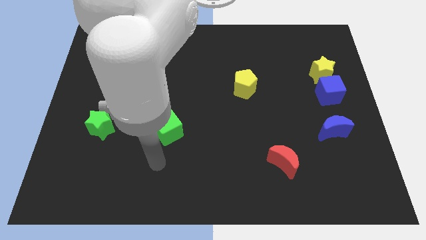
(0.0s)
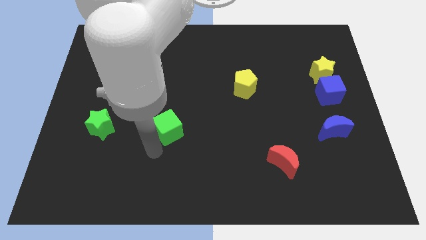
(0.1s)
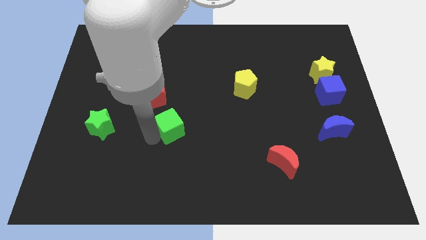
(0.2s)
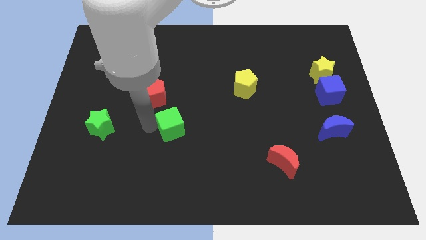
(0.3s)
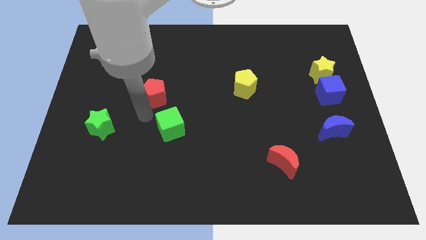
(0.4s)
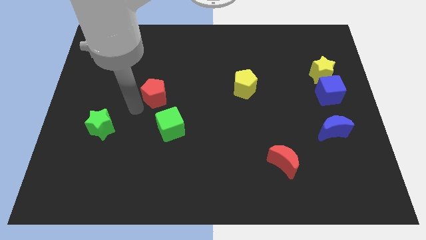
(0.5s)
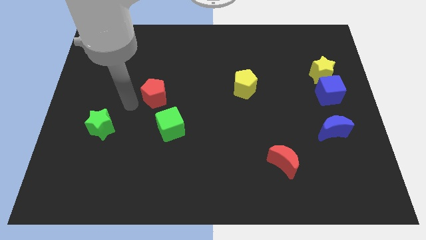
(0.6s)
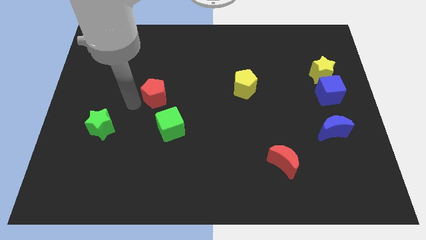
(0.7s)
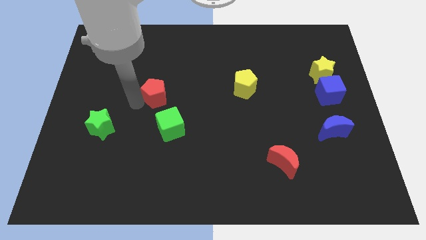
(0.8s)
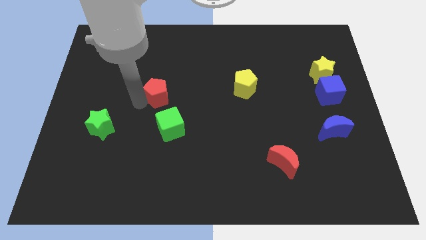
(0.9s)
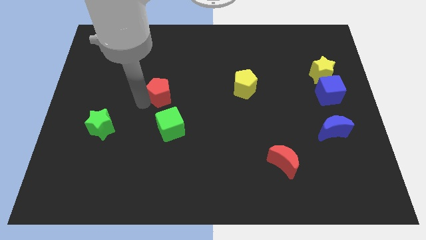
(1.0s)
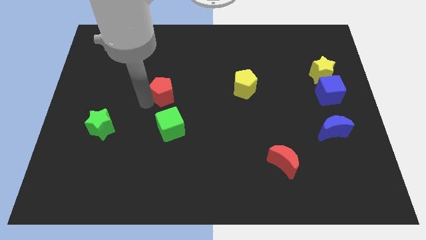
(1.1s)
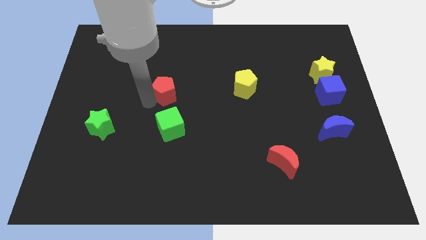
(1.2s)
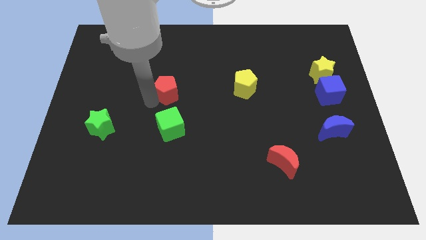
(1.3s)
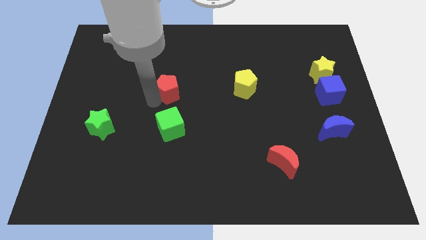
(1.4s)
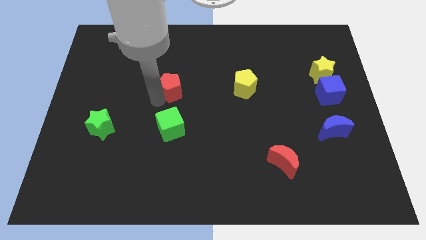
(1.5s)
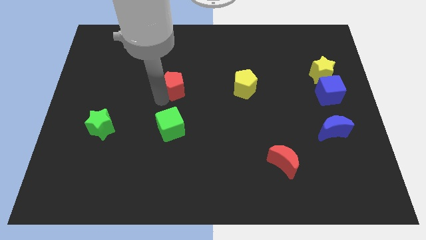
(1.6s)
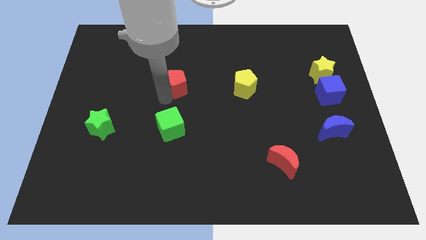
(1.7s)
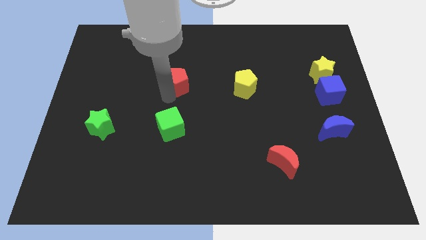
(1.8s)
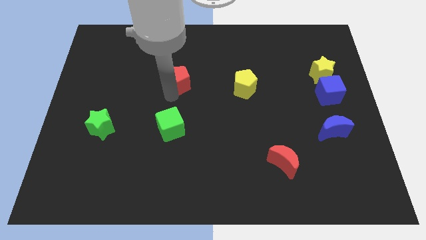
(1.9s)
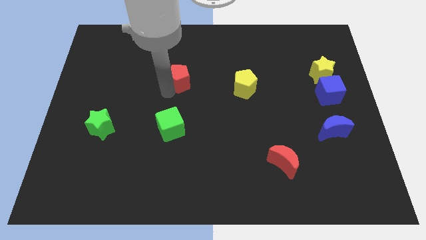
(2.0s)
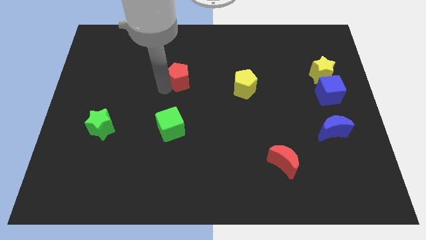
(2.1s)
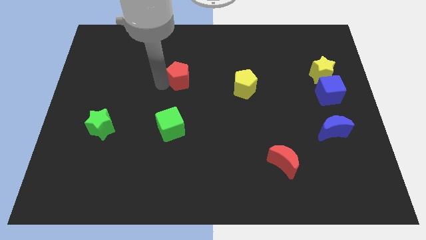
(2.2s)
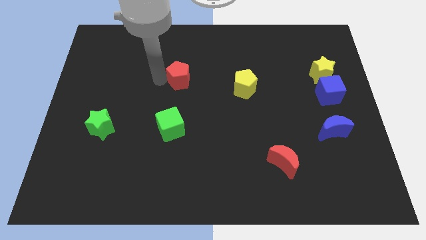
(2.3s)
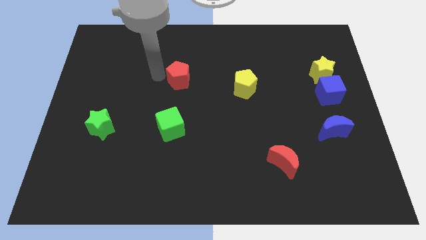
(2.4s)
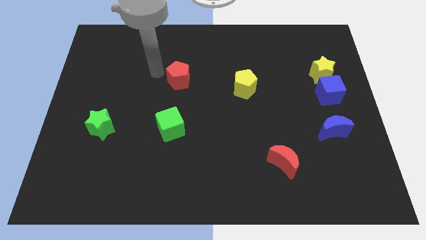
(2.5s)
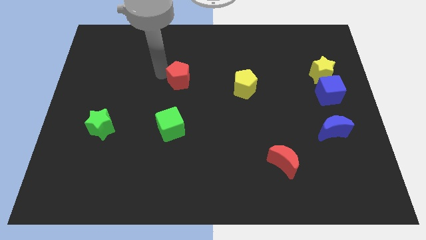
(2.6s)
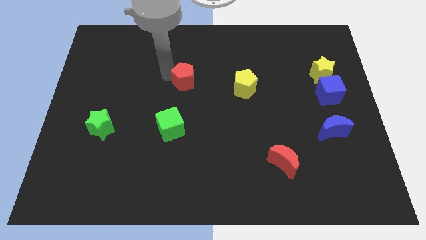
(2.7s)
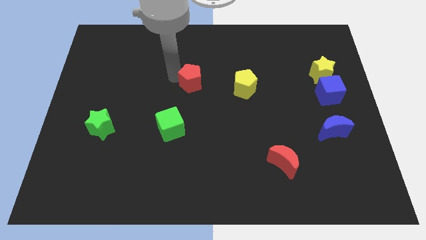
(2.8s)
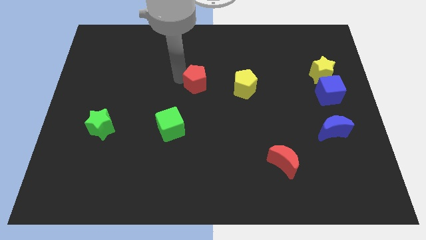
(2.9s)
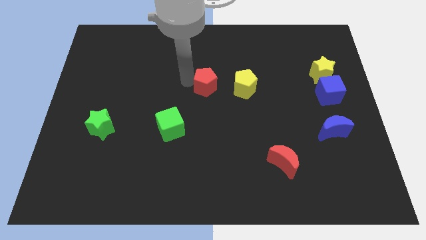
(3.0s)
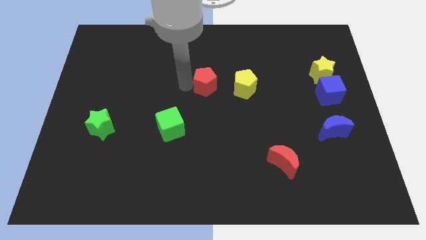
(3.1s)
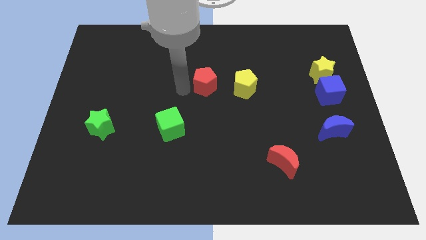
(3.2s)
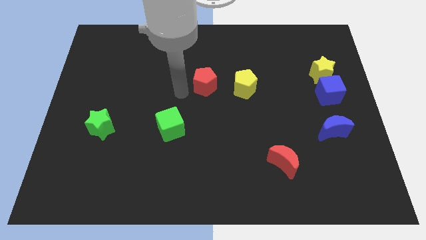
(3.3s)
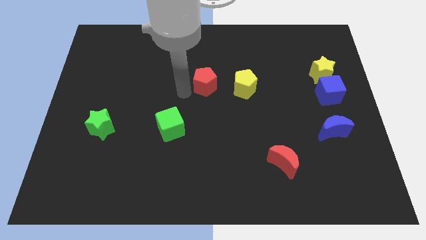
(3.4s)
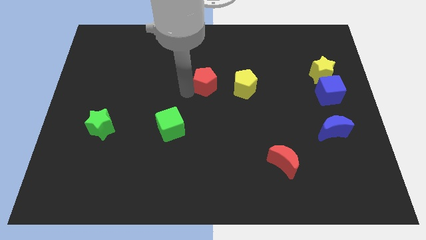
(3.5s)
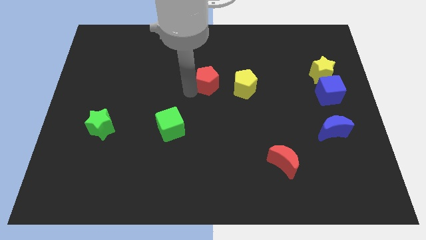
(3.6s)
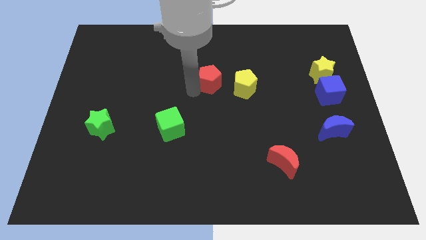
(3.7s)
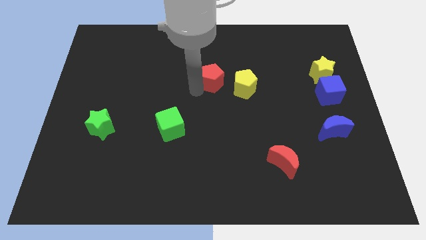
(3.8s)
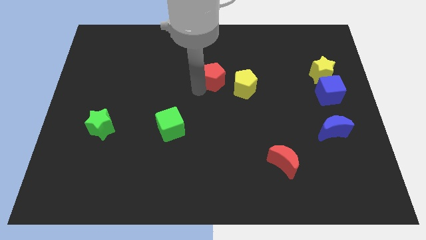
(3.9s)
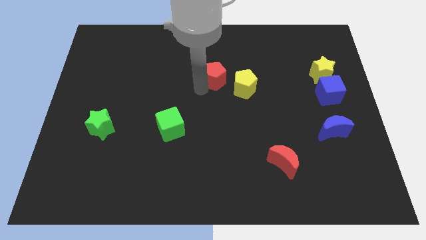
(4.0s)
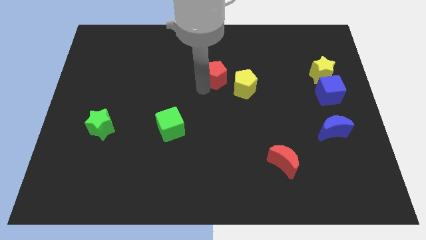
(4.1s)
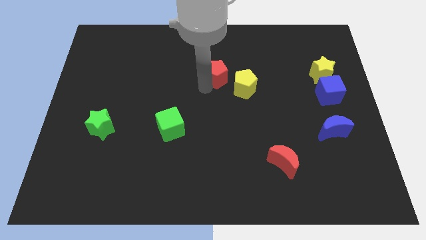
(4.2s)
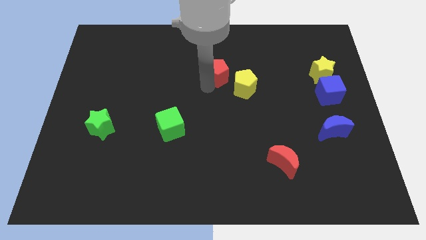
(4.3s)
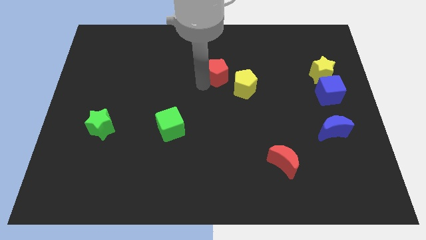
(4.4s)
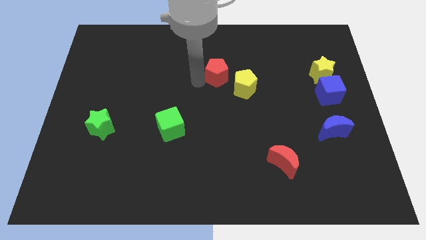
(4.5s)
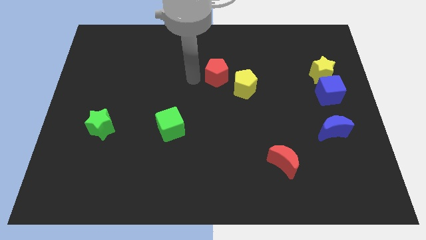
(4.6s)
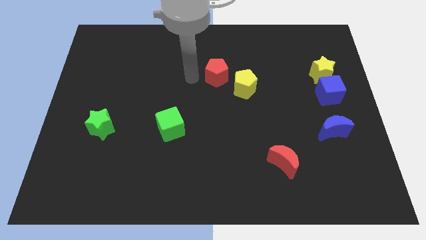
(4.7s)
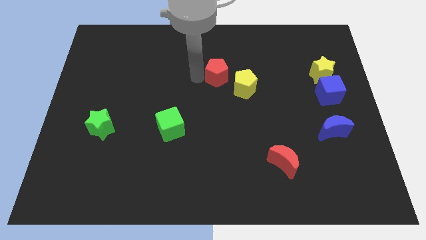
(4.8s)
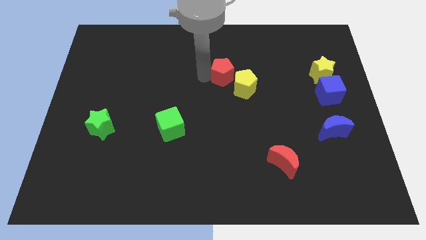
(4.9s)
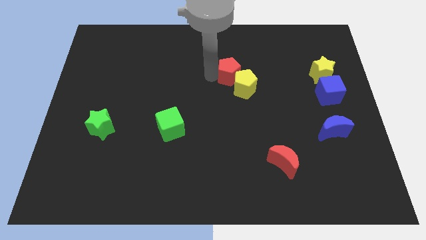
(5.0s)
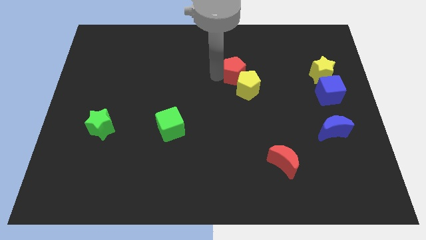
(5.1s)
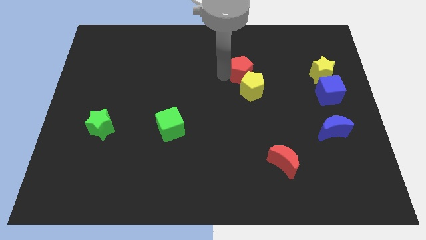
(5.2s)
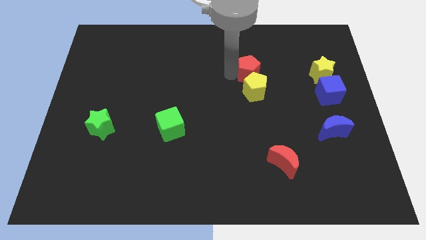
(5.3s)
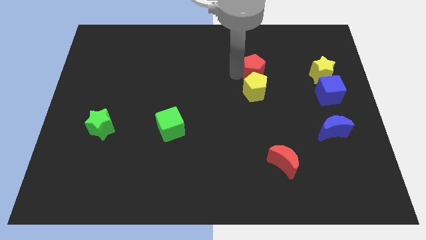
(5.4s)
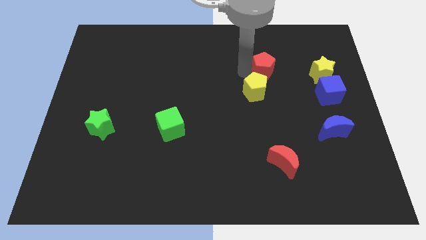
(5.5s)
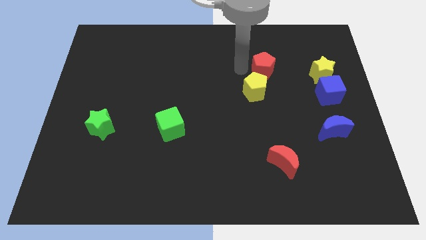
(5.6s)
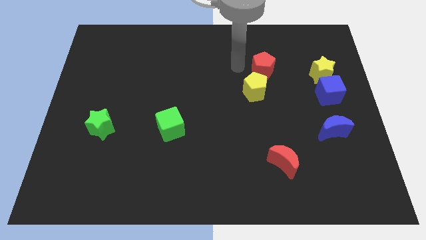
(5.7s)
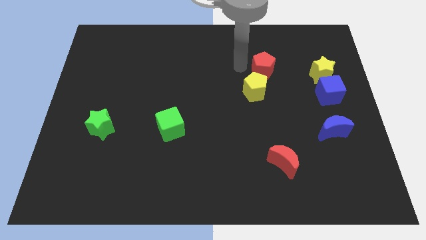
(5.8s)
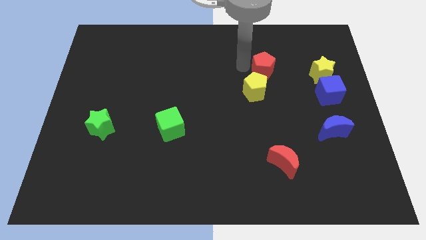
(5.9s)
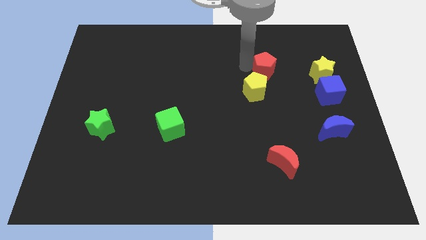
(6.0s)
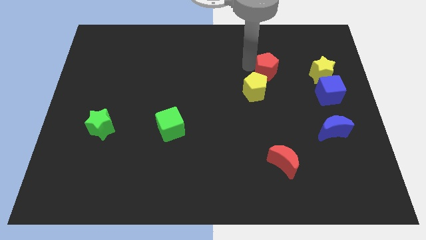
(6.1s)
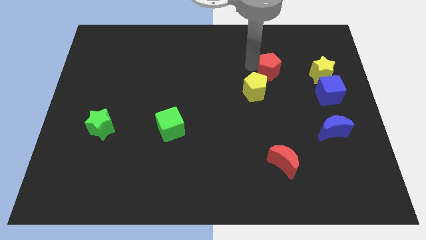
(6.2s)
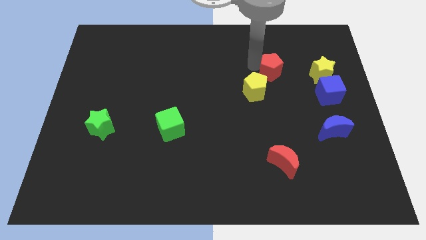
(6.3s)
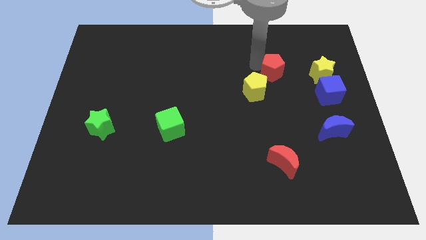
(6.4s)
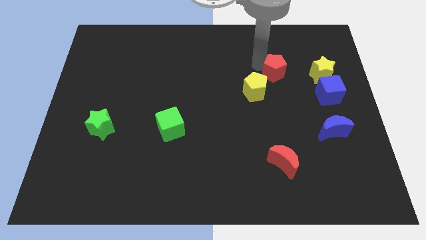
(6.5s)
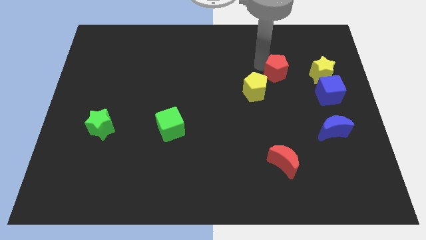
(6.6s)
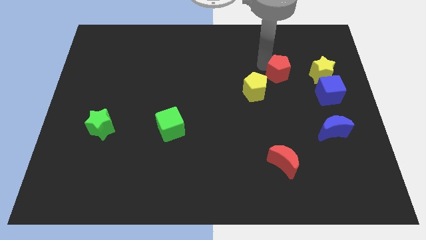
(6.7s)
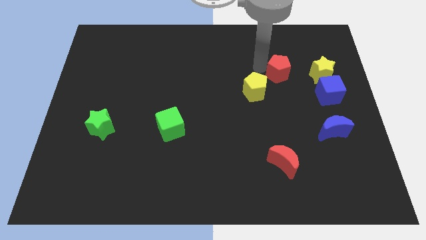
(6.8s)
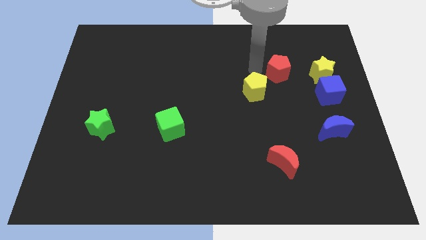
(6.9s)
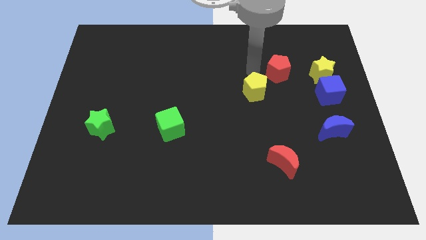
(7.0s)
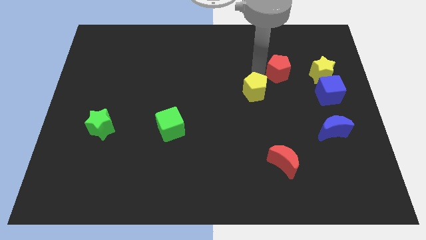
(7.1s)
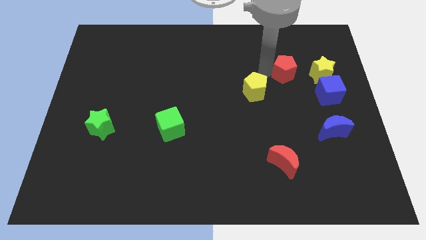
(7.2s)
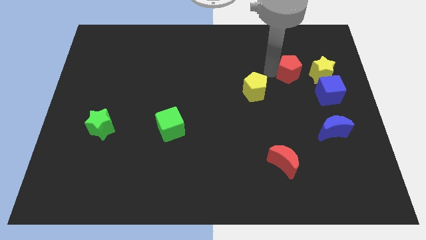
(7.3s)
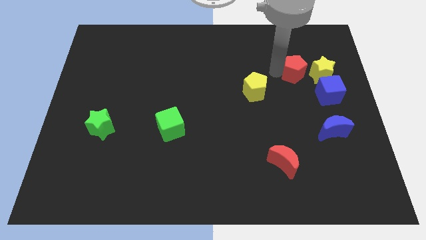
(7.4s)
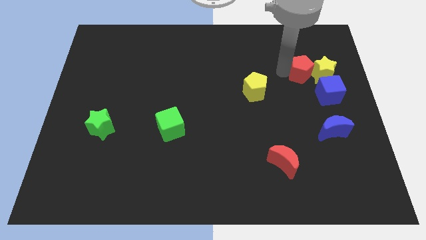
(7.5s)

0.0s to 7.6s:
put the red pentagon to the yellow star

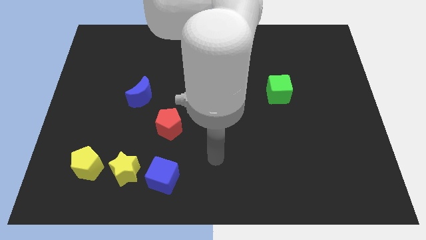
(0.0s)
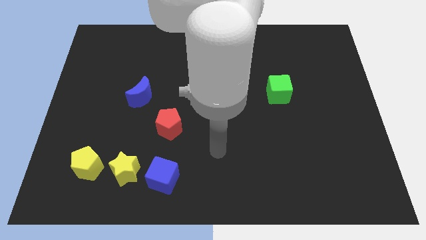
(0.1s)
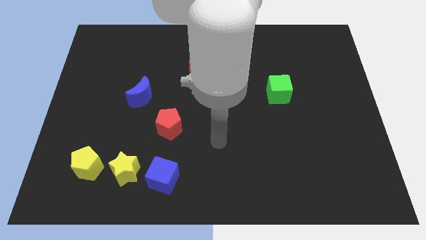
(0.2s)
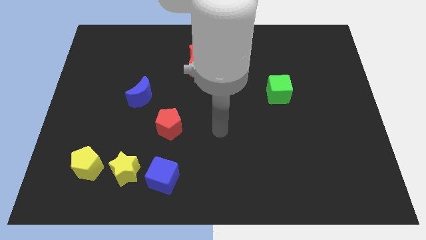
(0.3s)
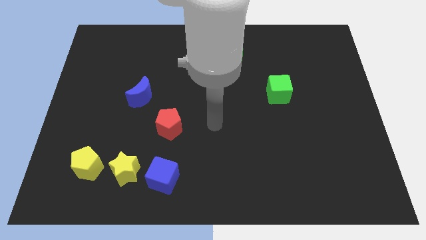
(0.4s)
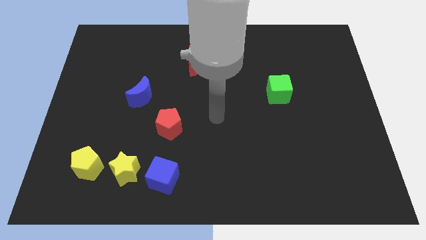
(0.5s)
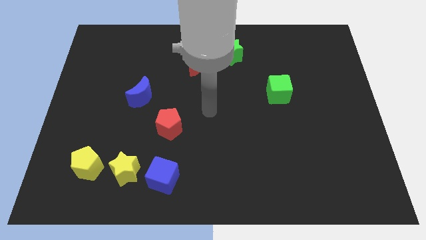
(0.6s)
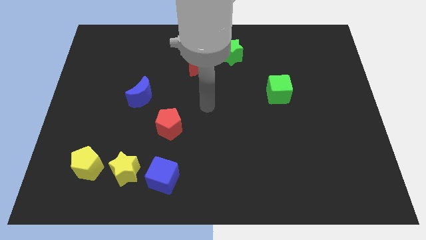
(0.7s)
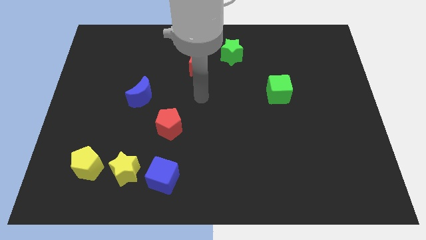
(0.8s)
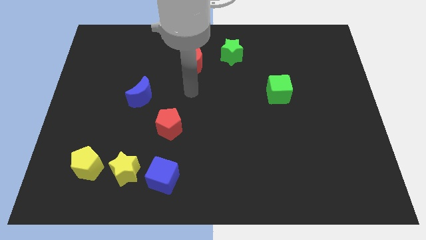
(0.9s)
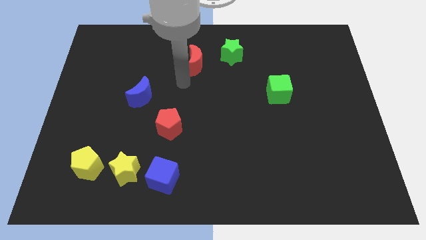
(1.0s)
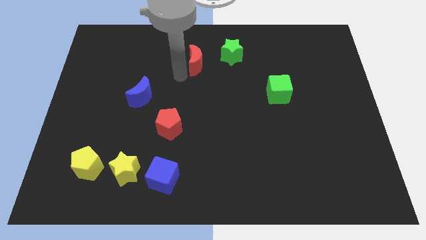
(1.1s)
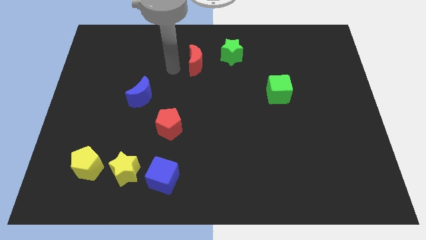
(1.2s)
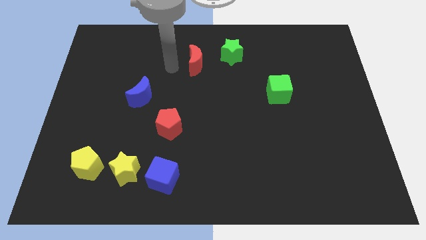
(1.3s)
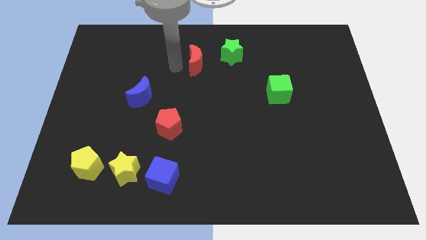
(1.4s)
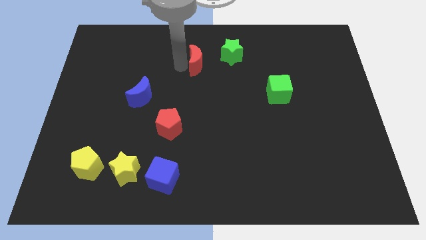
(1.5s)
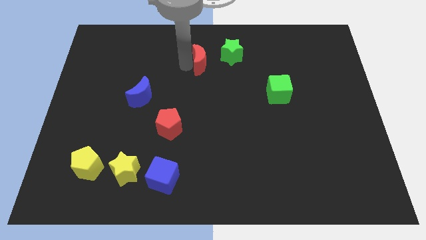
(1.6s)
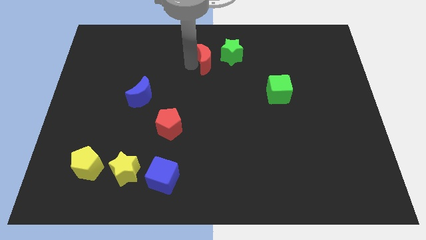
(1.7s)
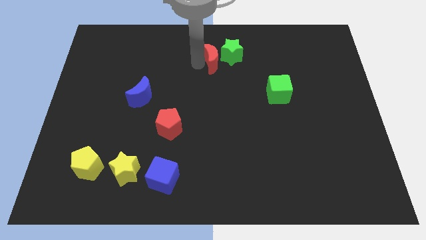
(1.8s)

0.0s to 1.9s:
put the red moon to the green star
